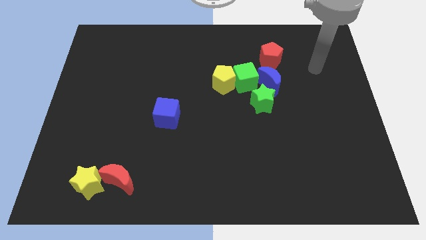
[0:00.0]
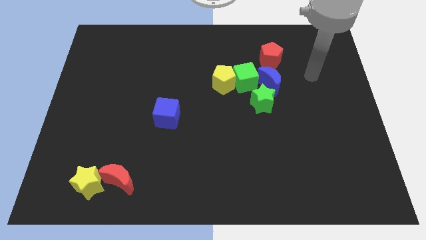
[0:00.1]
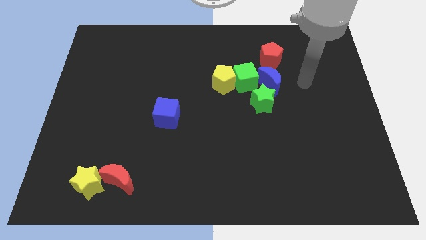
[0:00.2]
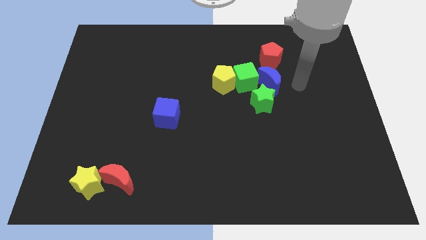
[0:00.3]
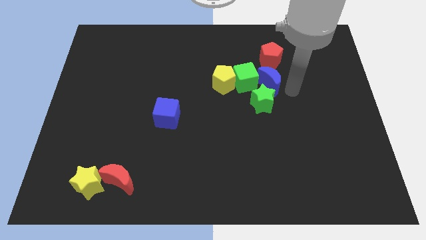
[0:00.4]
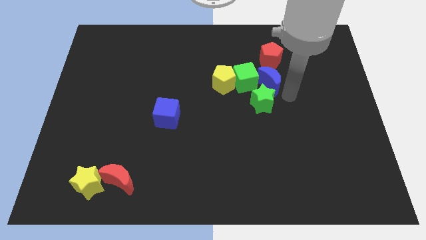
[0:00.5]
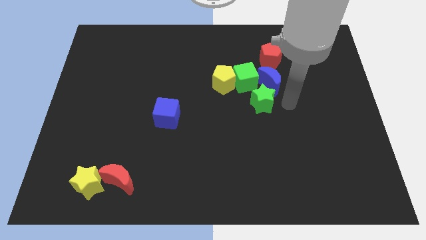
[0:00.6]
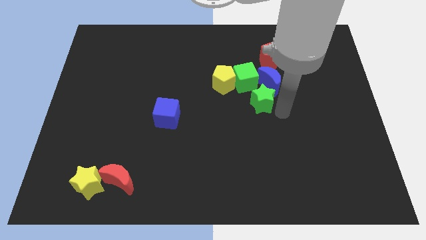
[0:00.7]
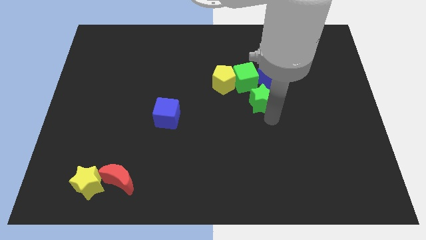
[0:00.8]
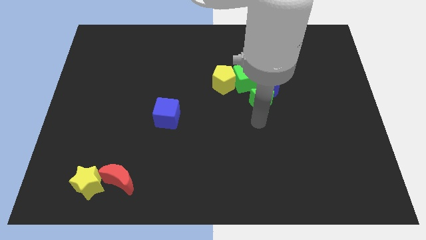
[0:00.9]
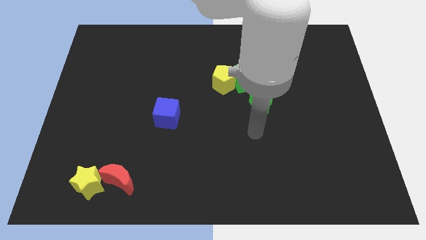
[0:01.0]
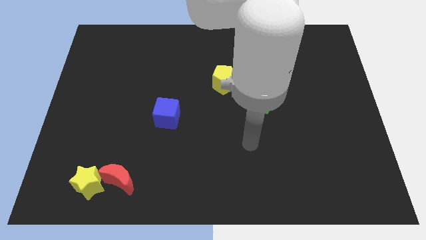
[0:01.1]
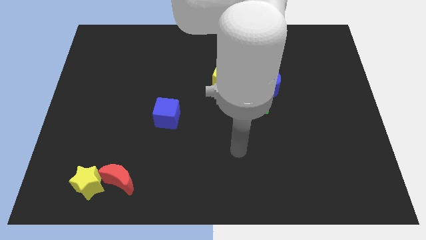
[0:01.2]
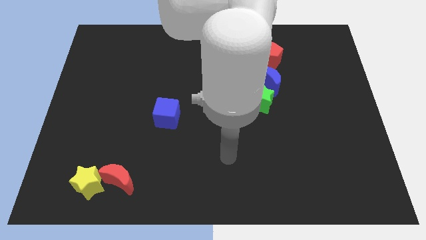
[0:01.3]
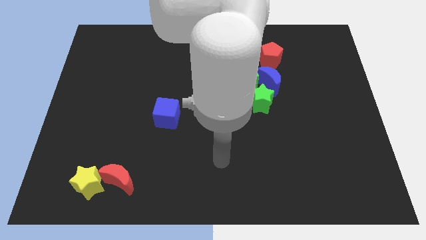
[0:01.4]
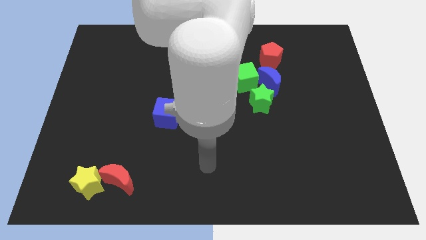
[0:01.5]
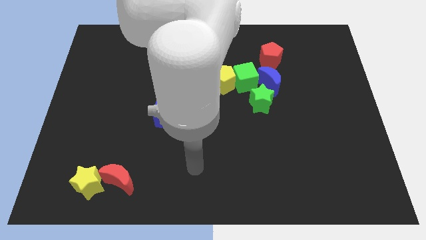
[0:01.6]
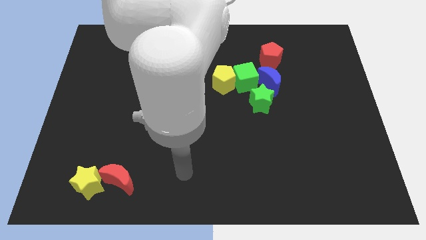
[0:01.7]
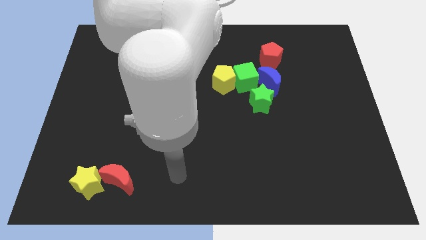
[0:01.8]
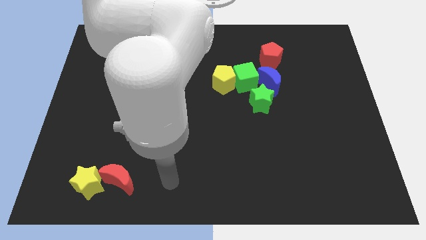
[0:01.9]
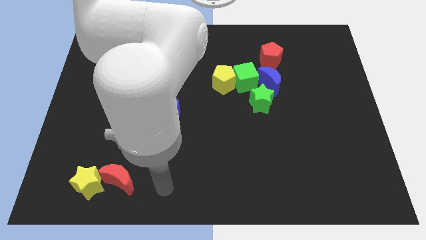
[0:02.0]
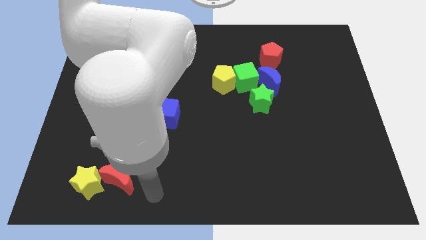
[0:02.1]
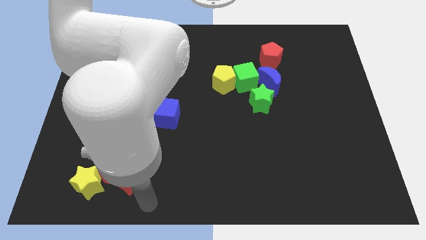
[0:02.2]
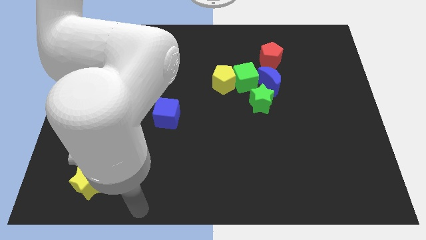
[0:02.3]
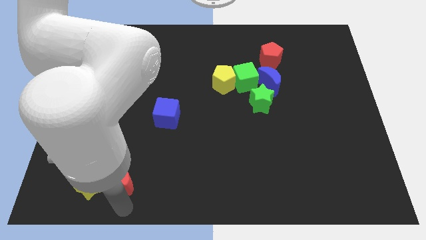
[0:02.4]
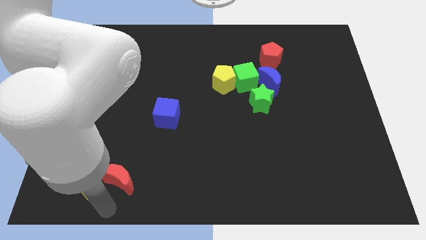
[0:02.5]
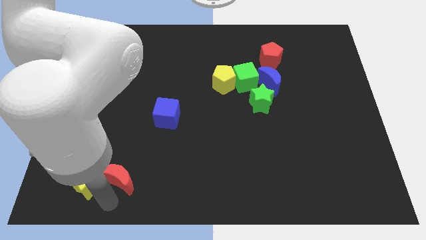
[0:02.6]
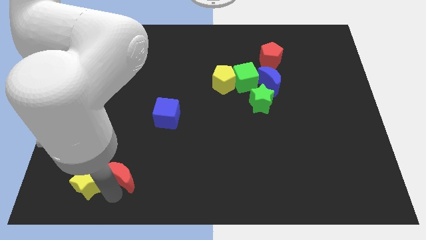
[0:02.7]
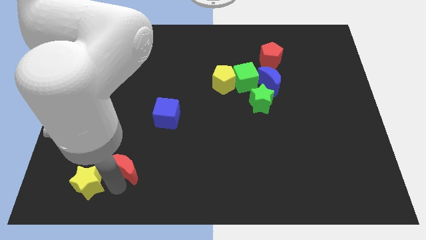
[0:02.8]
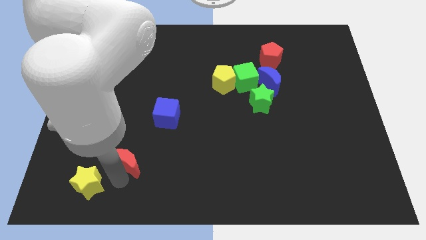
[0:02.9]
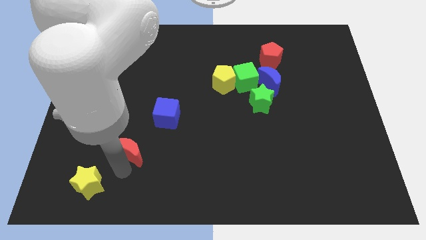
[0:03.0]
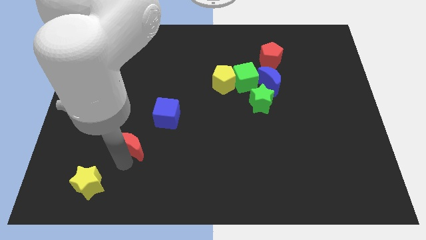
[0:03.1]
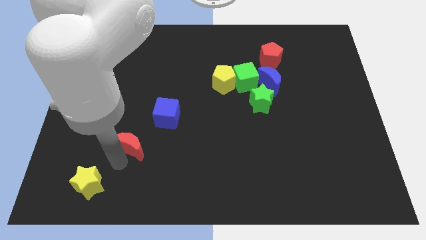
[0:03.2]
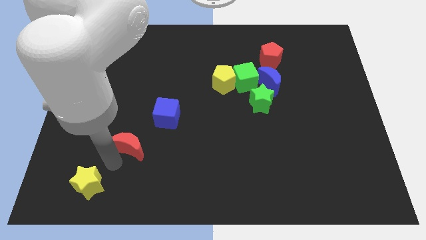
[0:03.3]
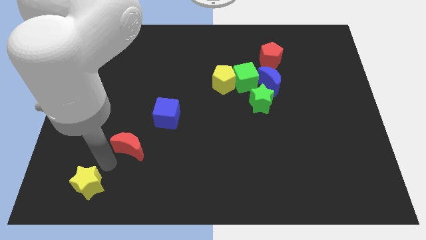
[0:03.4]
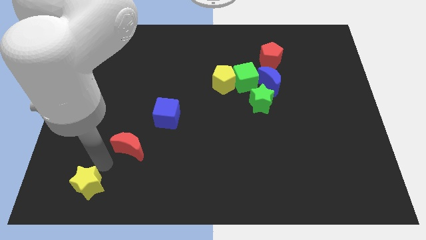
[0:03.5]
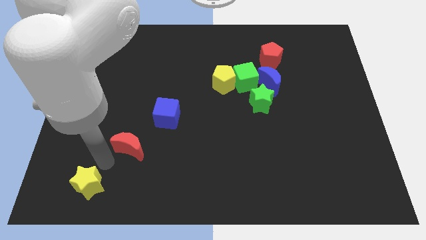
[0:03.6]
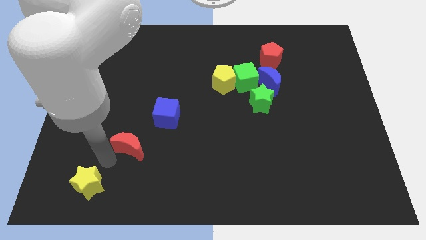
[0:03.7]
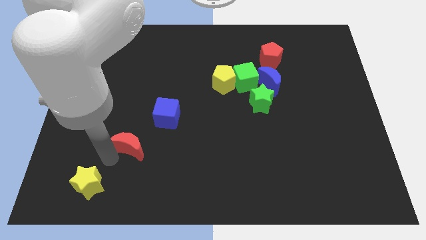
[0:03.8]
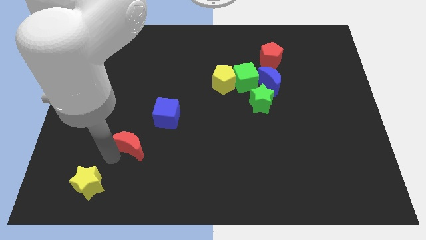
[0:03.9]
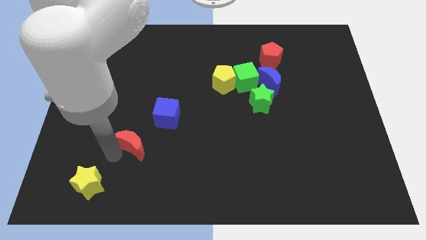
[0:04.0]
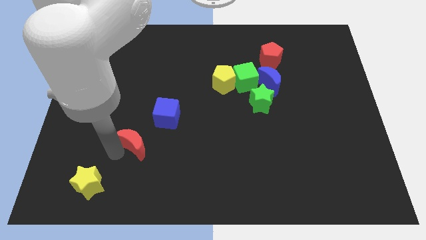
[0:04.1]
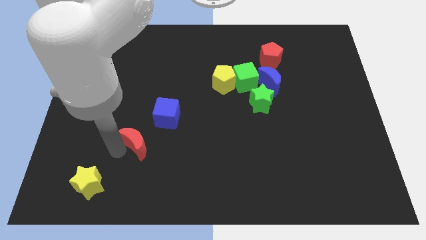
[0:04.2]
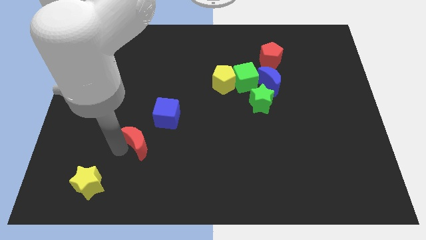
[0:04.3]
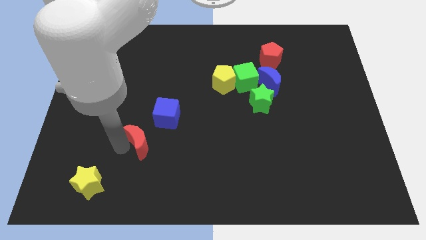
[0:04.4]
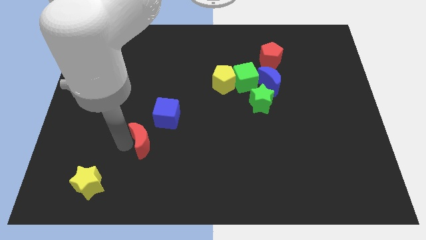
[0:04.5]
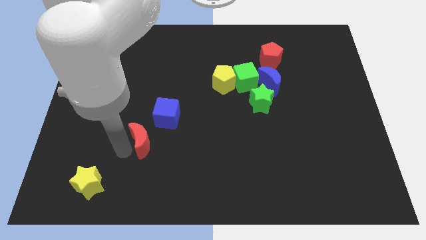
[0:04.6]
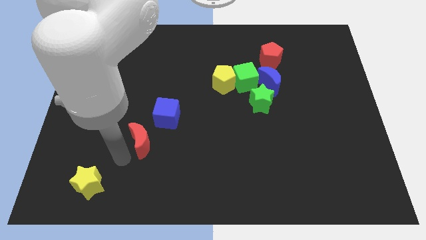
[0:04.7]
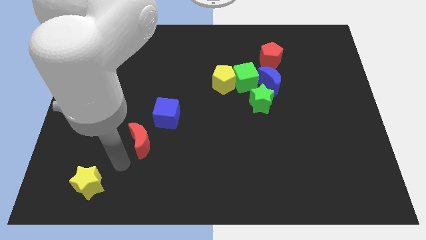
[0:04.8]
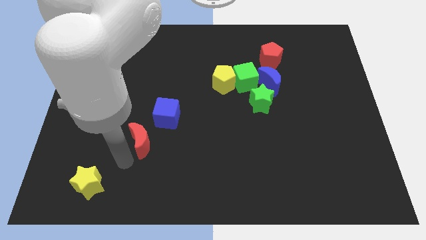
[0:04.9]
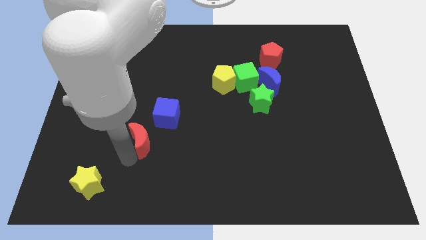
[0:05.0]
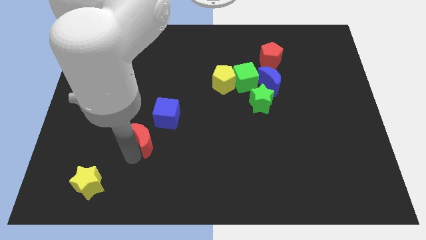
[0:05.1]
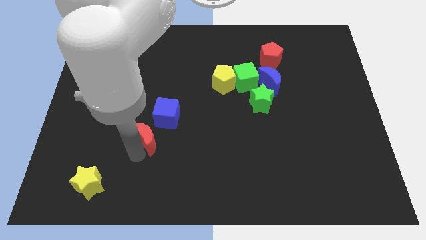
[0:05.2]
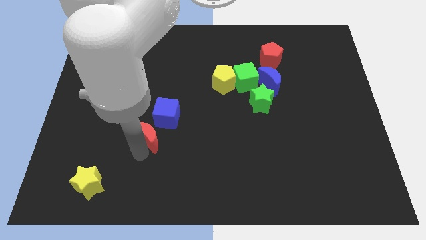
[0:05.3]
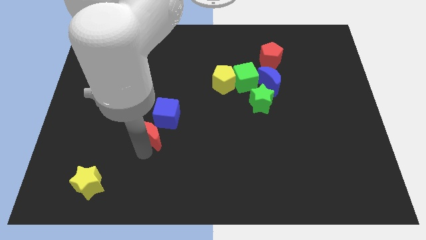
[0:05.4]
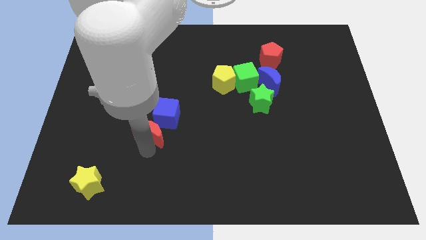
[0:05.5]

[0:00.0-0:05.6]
push the red moon to the blue cube

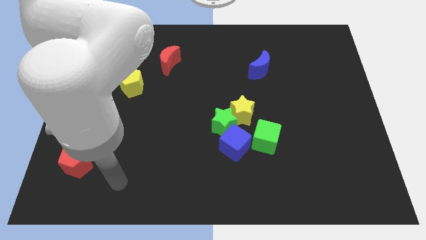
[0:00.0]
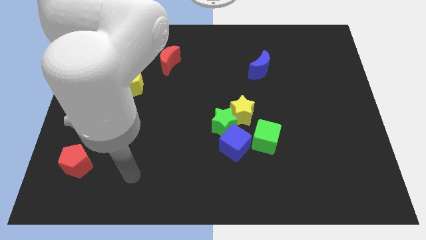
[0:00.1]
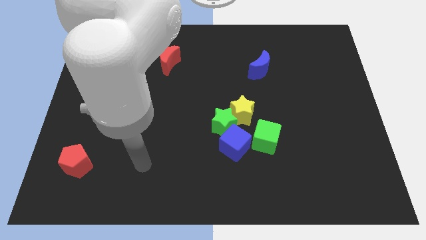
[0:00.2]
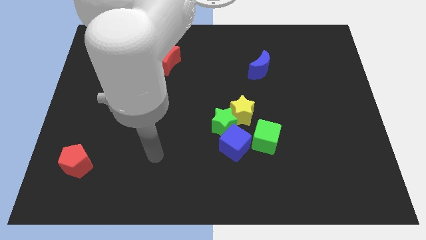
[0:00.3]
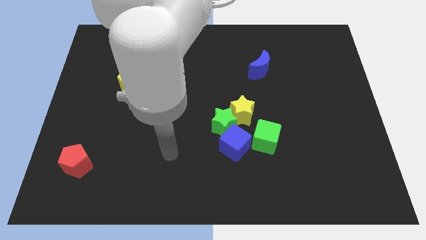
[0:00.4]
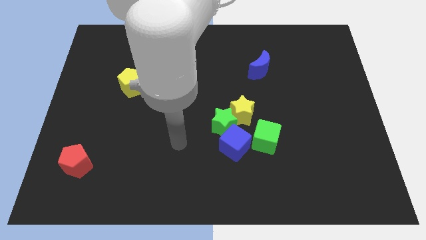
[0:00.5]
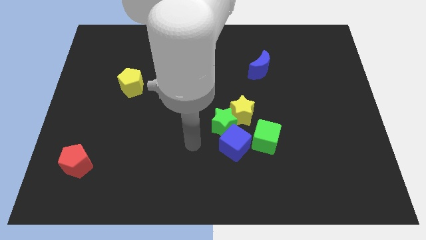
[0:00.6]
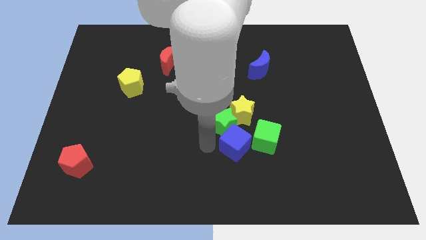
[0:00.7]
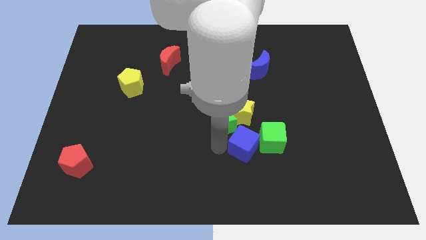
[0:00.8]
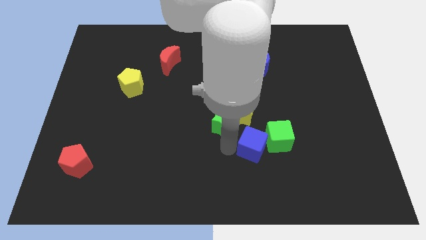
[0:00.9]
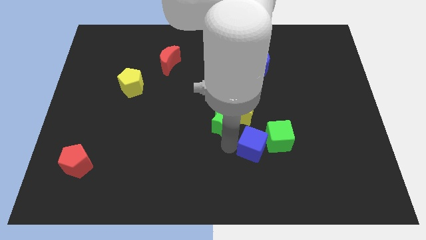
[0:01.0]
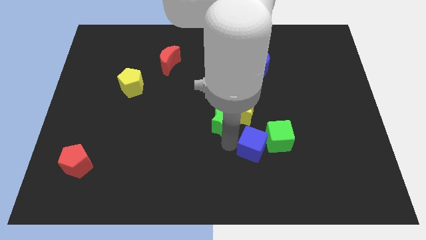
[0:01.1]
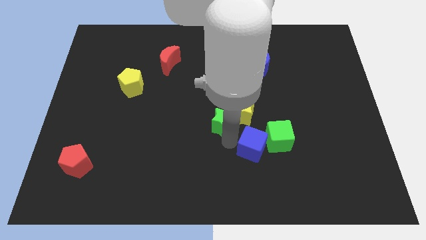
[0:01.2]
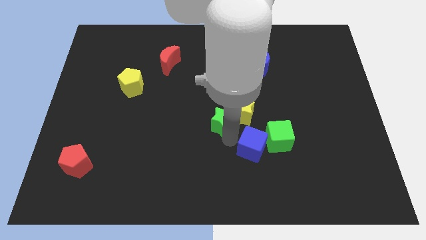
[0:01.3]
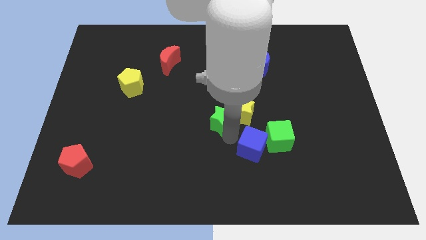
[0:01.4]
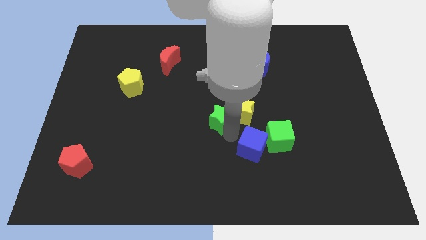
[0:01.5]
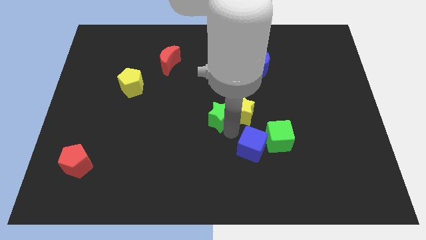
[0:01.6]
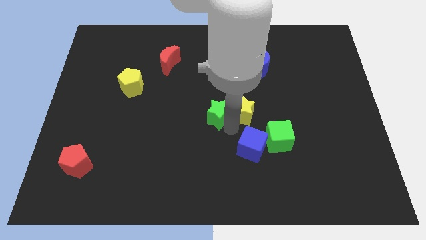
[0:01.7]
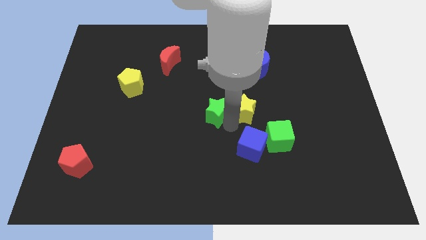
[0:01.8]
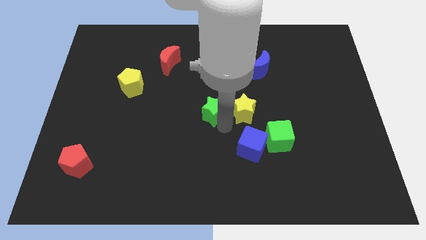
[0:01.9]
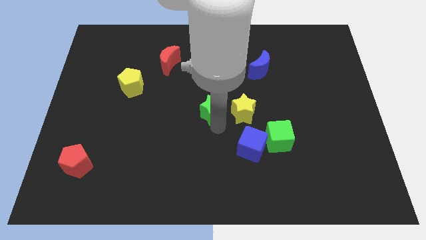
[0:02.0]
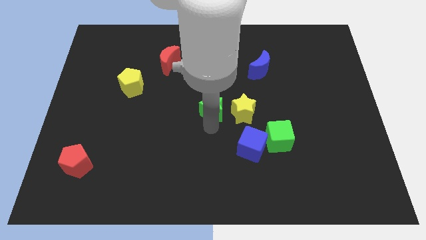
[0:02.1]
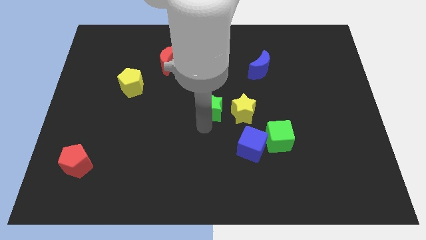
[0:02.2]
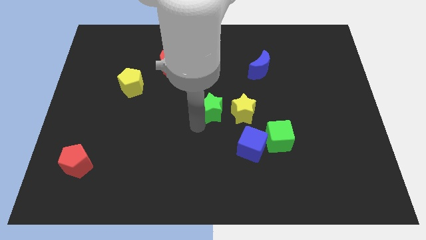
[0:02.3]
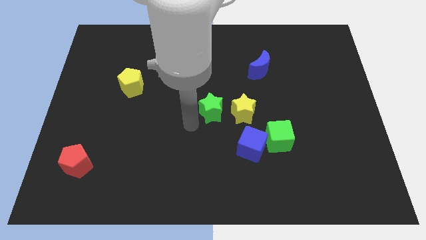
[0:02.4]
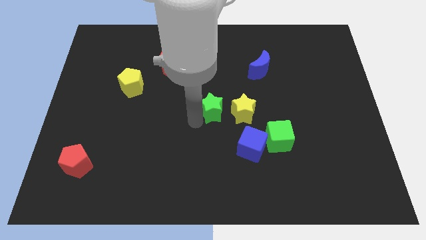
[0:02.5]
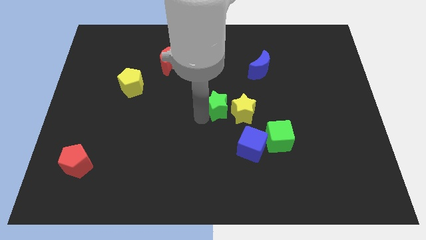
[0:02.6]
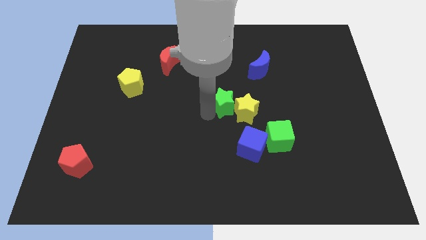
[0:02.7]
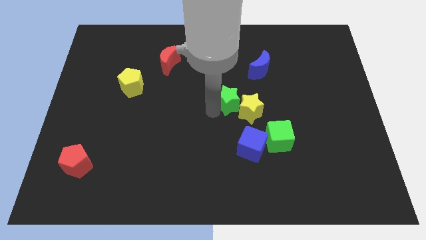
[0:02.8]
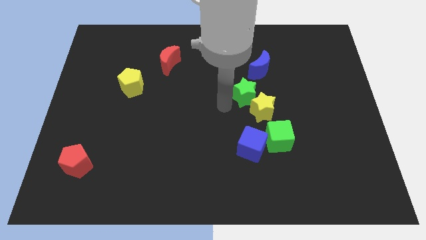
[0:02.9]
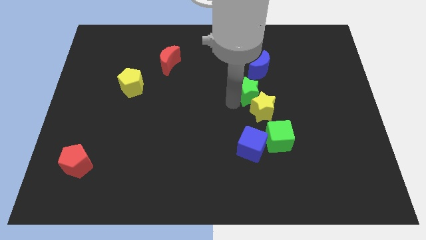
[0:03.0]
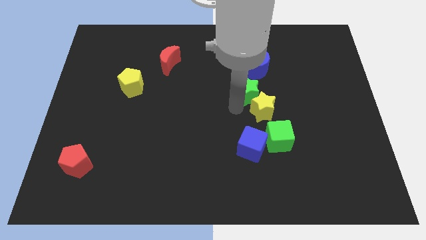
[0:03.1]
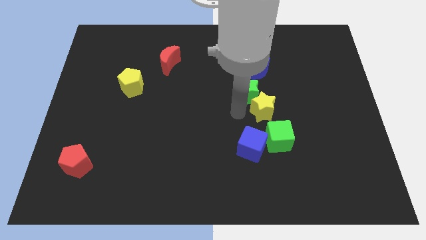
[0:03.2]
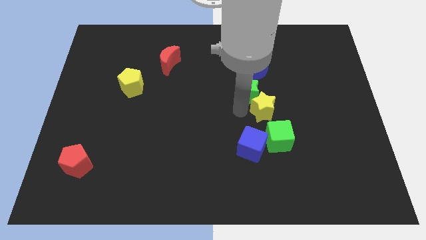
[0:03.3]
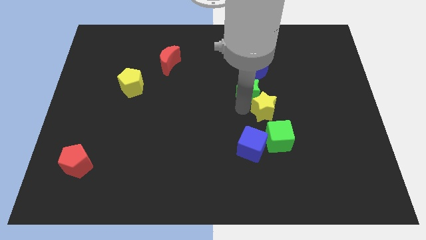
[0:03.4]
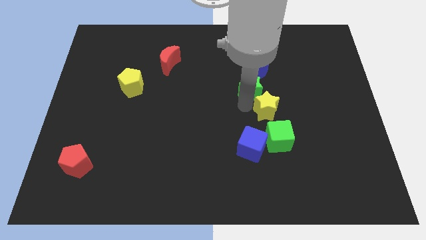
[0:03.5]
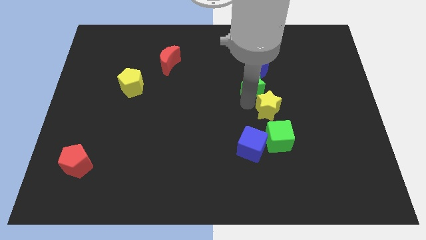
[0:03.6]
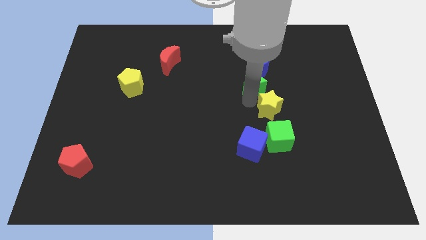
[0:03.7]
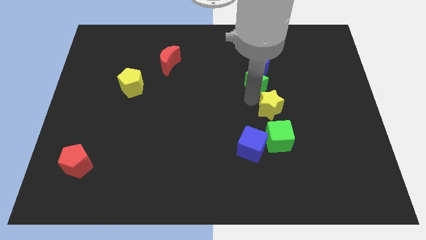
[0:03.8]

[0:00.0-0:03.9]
push the green star to the blue moon
